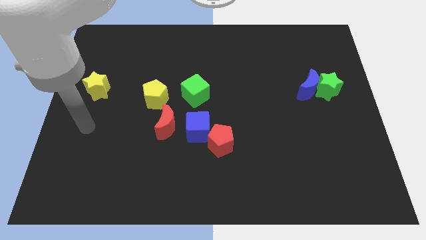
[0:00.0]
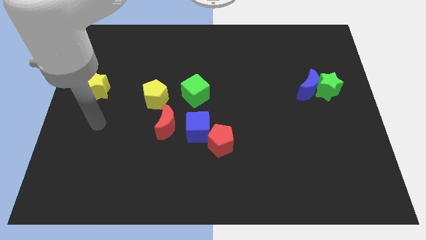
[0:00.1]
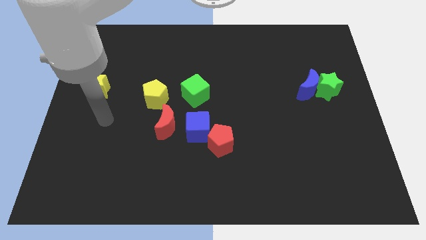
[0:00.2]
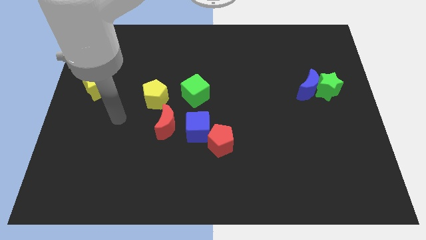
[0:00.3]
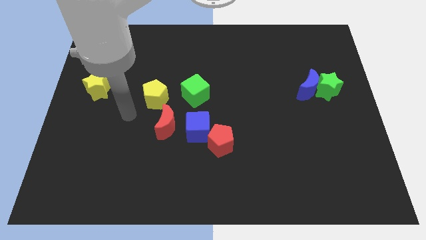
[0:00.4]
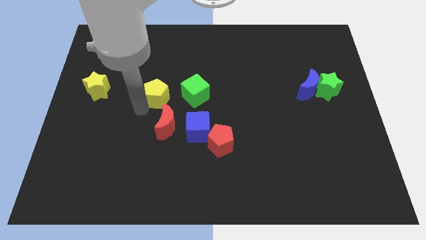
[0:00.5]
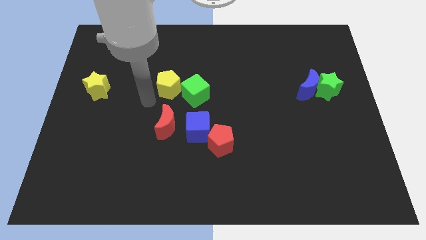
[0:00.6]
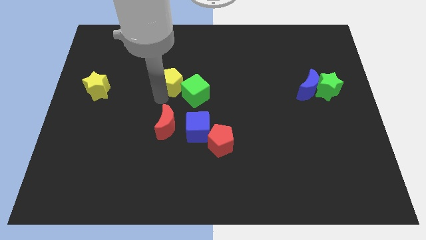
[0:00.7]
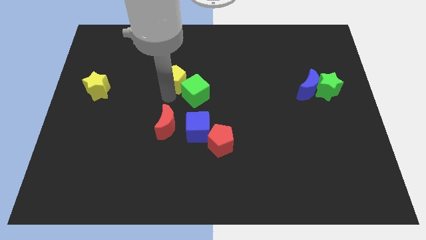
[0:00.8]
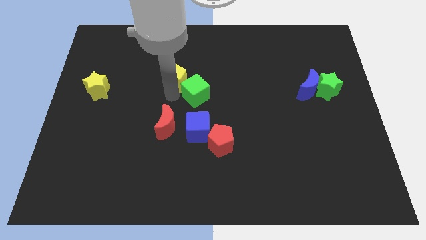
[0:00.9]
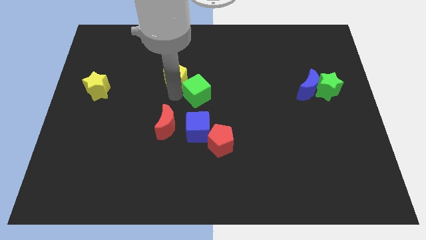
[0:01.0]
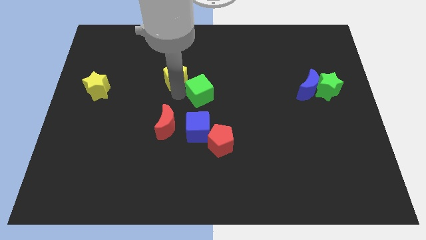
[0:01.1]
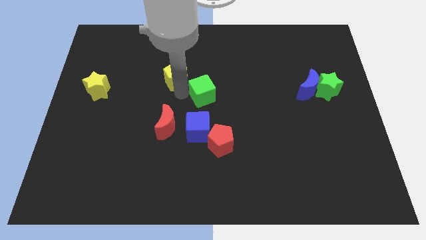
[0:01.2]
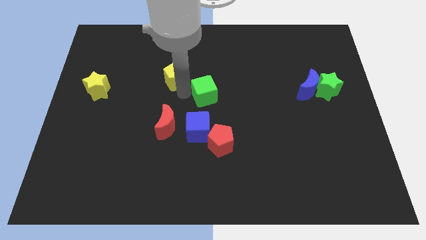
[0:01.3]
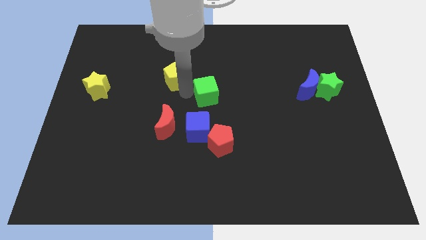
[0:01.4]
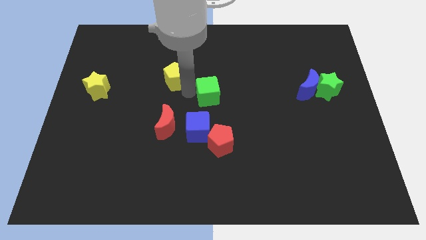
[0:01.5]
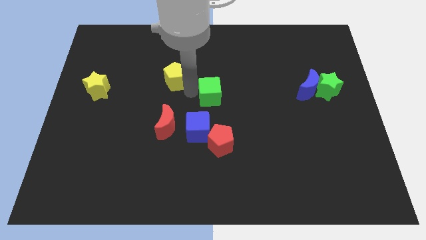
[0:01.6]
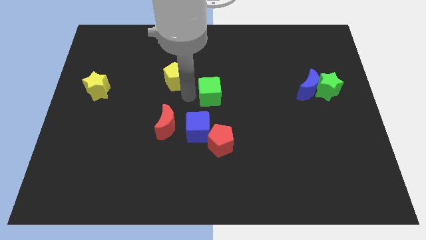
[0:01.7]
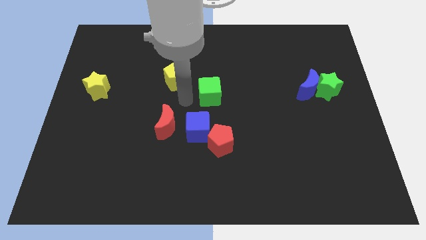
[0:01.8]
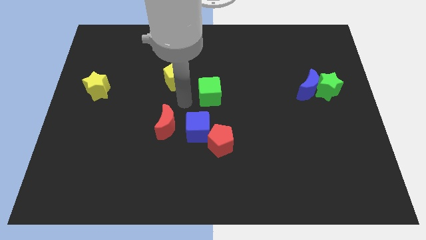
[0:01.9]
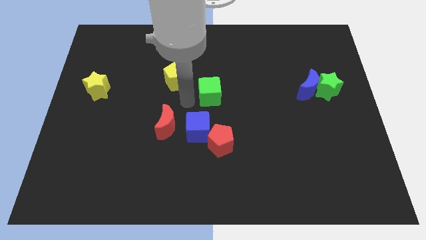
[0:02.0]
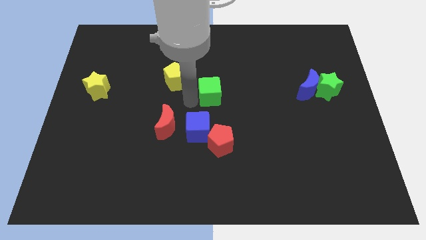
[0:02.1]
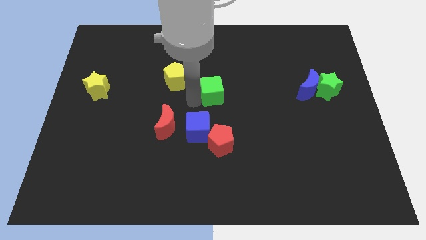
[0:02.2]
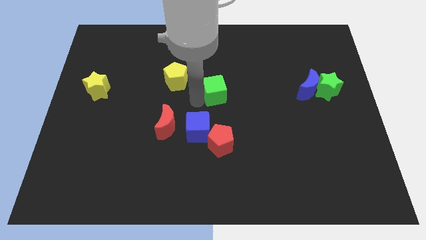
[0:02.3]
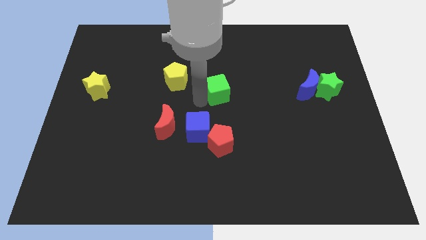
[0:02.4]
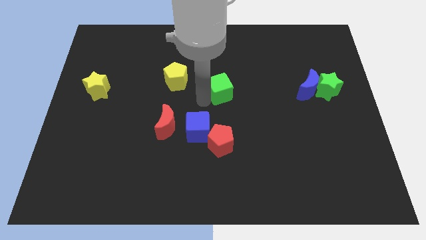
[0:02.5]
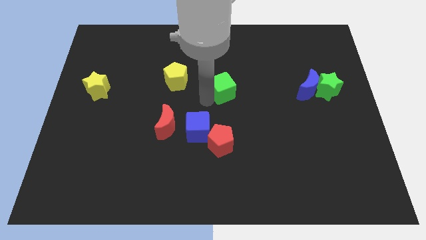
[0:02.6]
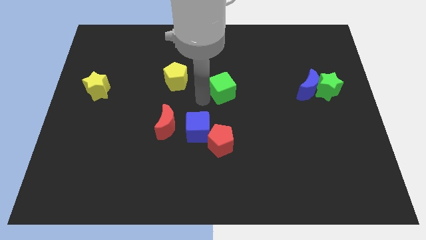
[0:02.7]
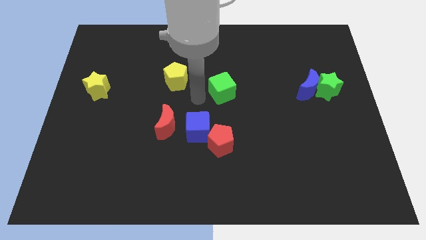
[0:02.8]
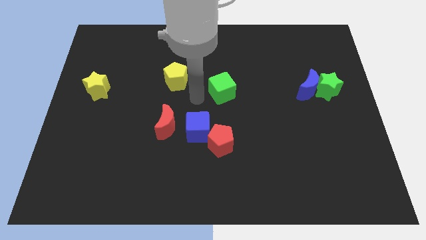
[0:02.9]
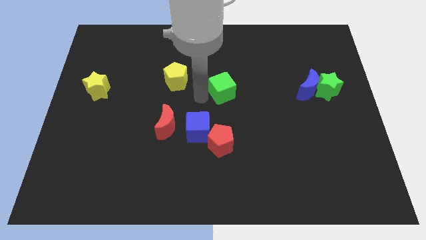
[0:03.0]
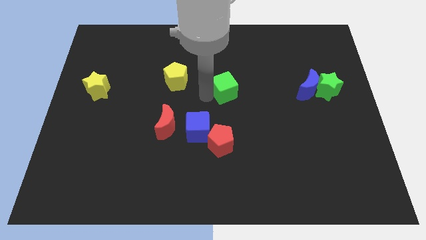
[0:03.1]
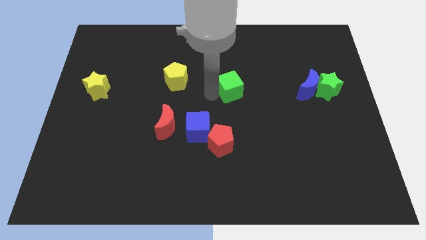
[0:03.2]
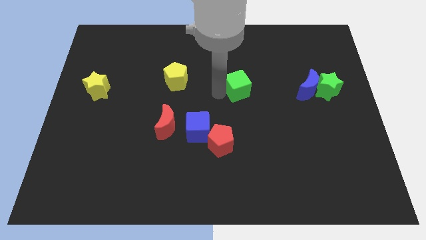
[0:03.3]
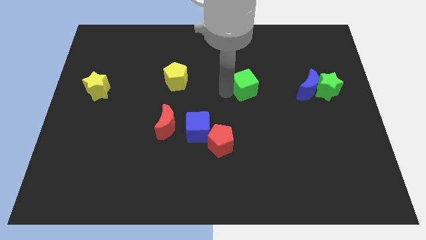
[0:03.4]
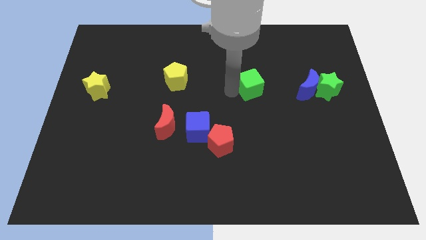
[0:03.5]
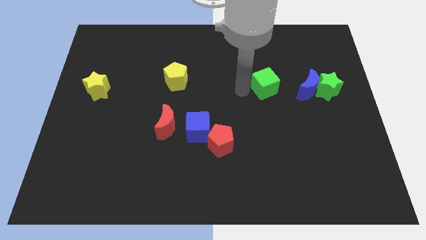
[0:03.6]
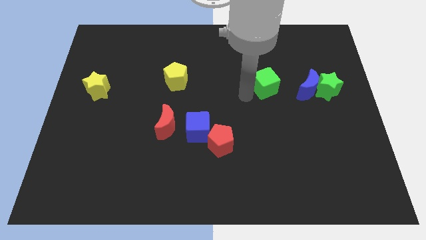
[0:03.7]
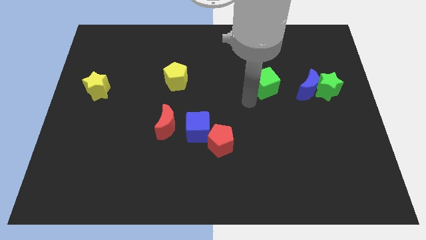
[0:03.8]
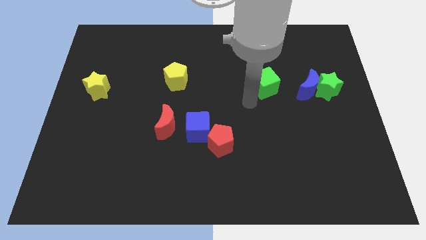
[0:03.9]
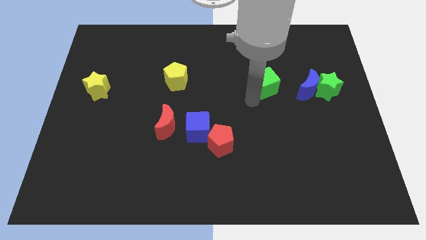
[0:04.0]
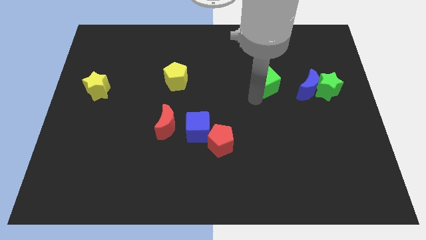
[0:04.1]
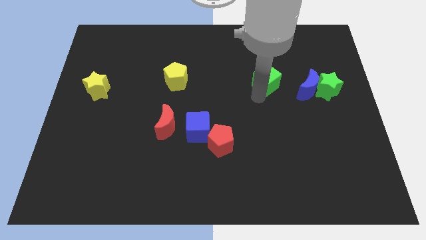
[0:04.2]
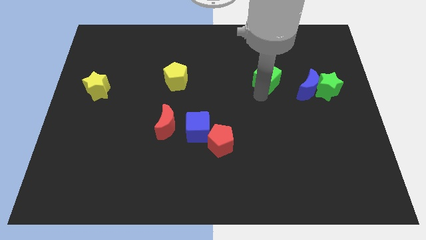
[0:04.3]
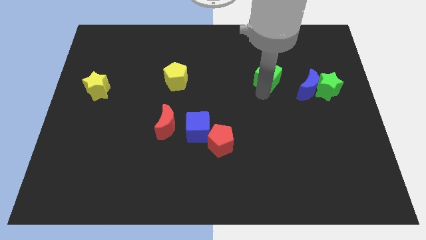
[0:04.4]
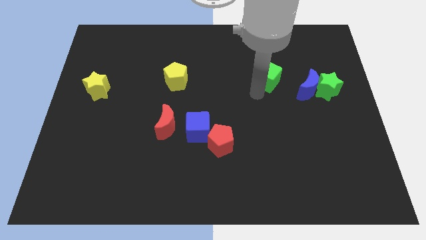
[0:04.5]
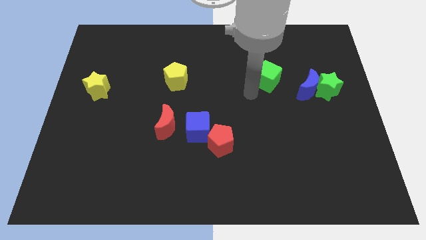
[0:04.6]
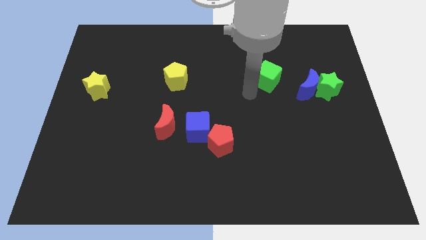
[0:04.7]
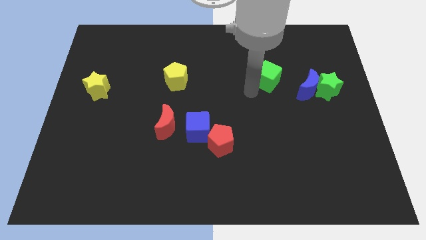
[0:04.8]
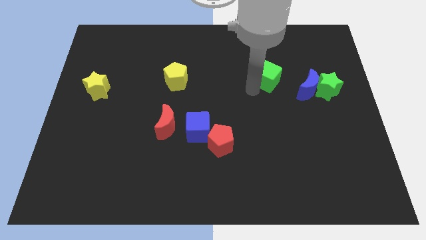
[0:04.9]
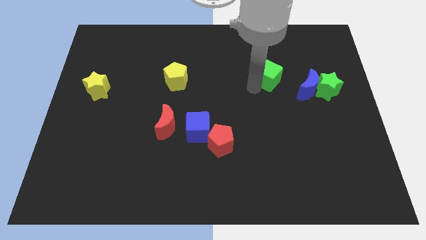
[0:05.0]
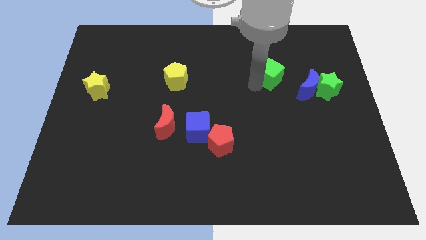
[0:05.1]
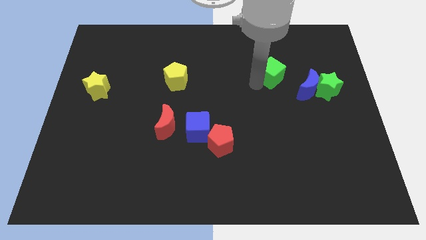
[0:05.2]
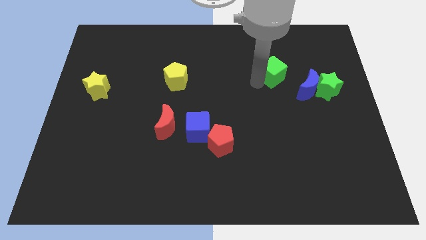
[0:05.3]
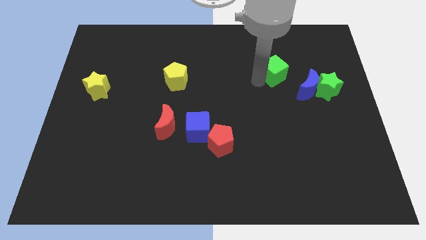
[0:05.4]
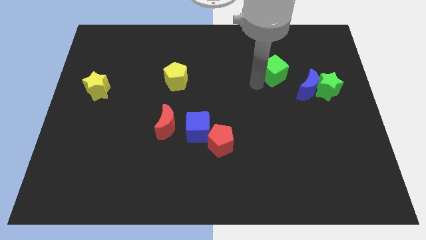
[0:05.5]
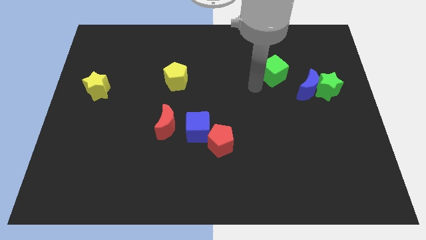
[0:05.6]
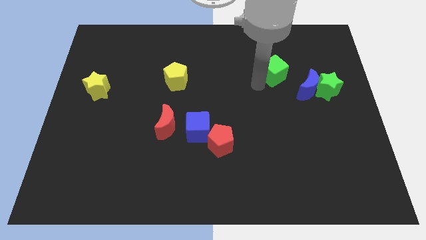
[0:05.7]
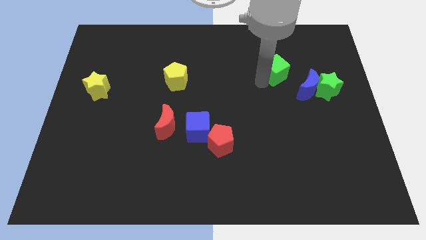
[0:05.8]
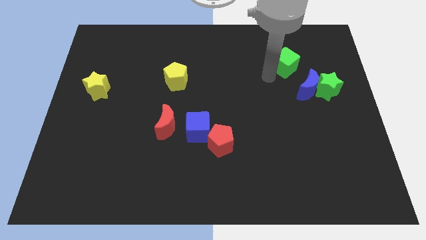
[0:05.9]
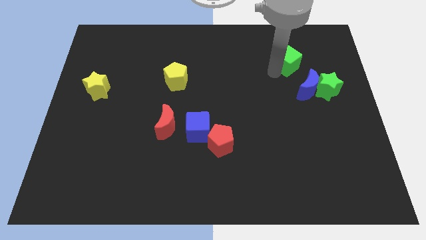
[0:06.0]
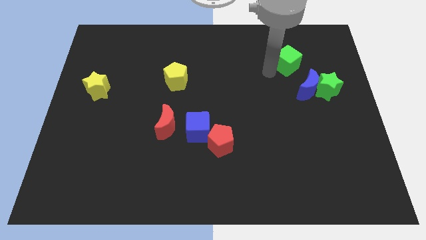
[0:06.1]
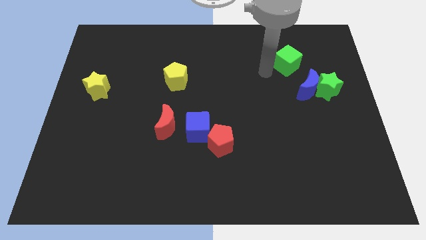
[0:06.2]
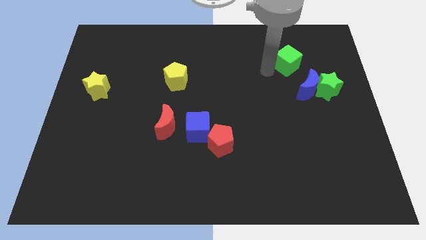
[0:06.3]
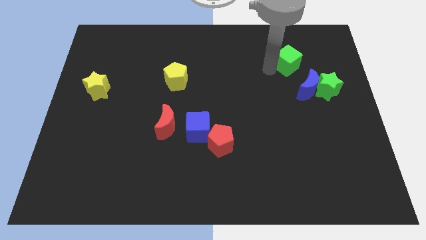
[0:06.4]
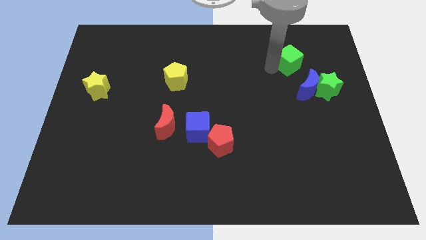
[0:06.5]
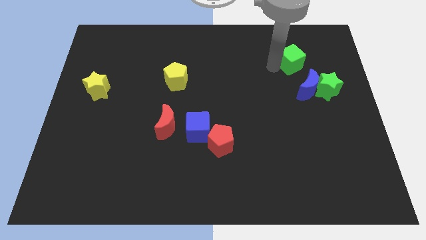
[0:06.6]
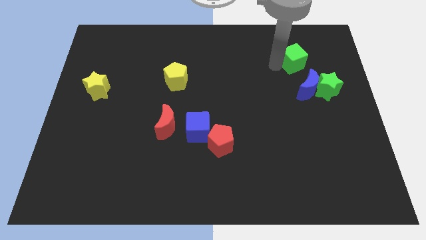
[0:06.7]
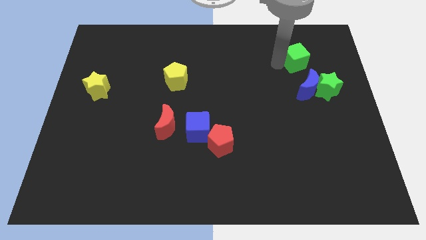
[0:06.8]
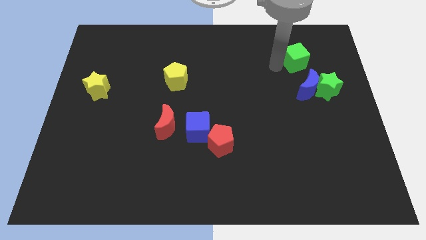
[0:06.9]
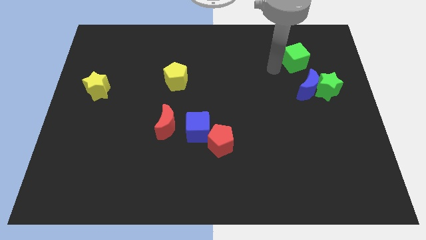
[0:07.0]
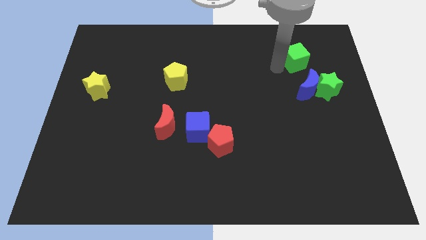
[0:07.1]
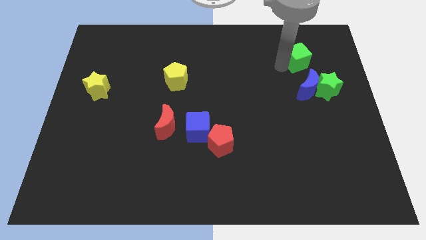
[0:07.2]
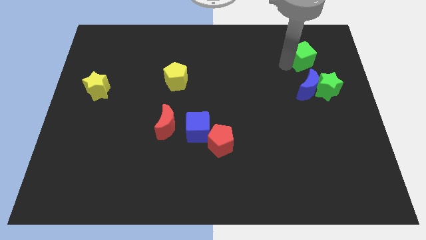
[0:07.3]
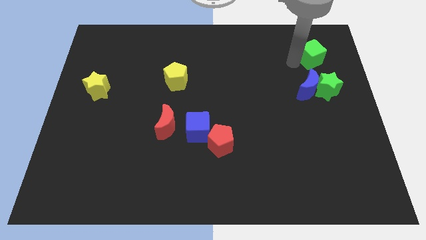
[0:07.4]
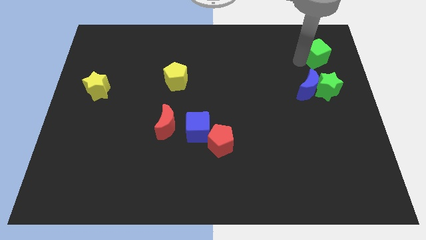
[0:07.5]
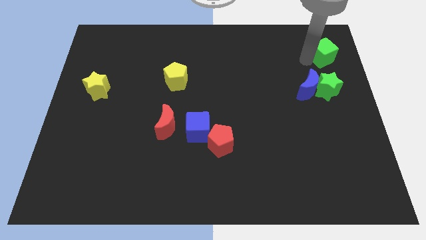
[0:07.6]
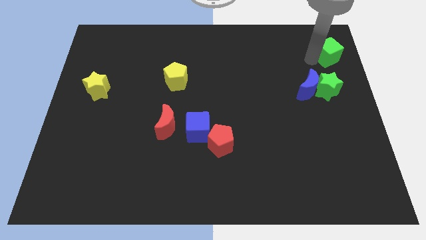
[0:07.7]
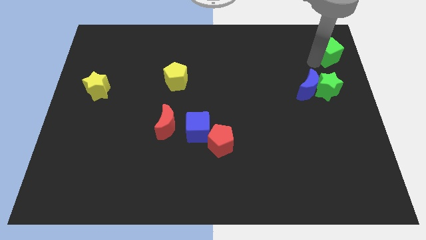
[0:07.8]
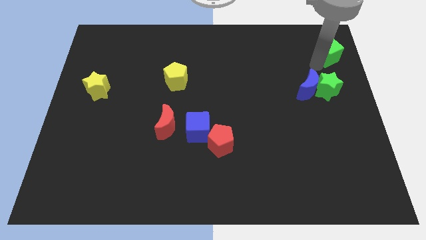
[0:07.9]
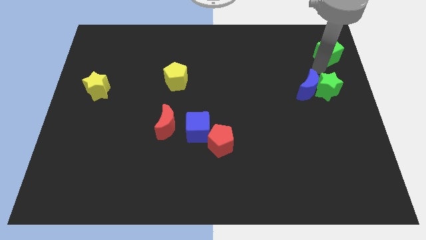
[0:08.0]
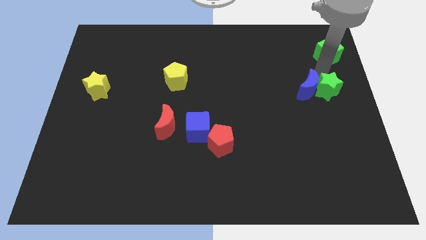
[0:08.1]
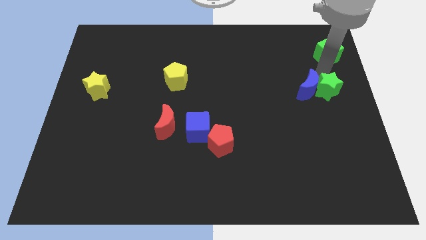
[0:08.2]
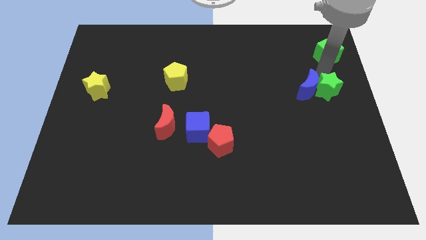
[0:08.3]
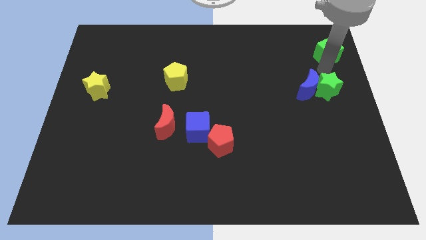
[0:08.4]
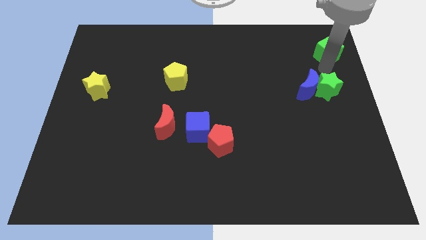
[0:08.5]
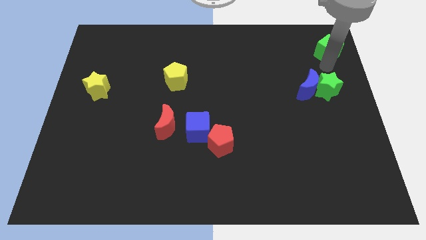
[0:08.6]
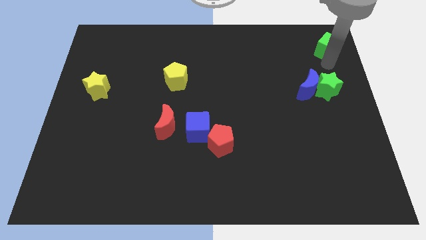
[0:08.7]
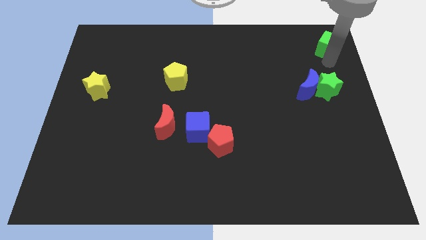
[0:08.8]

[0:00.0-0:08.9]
push the green cube to the top right of the board
